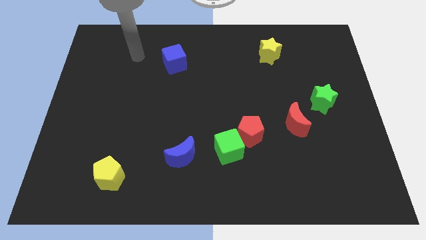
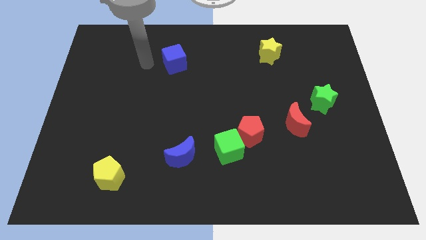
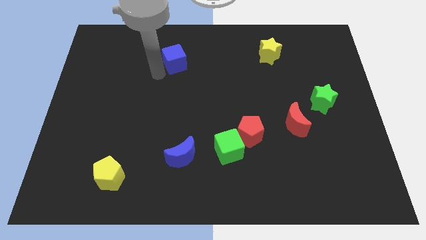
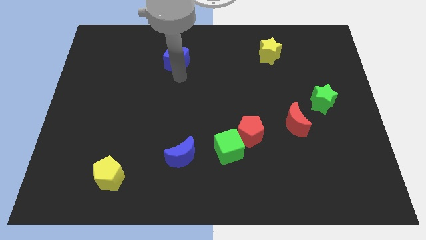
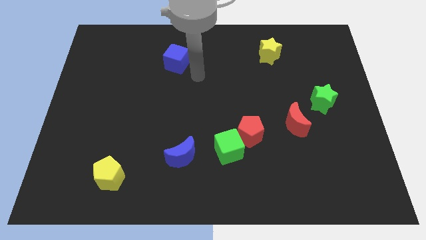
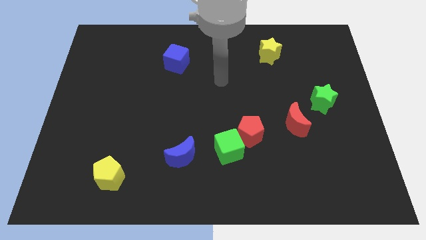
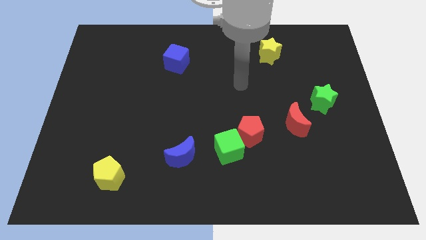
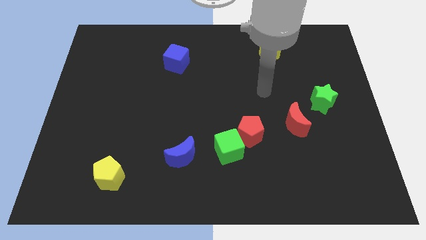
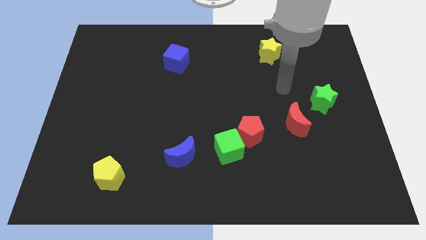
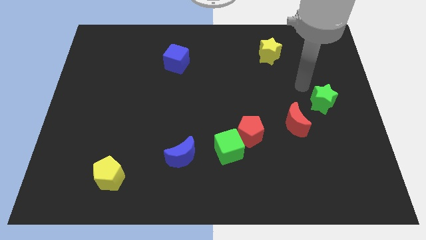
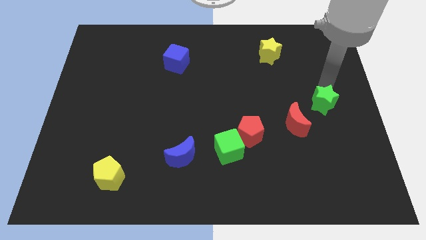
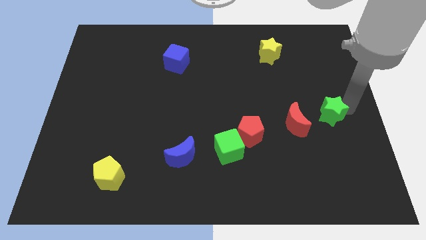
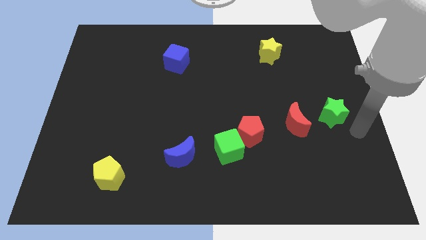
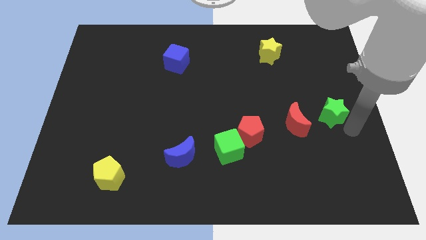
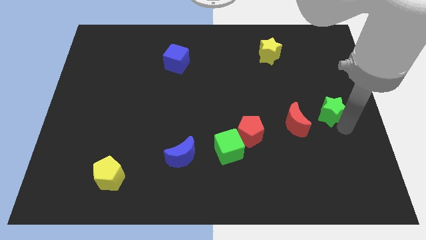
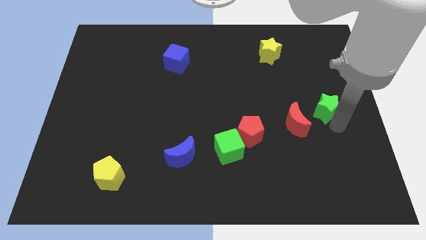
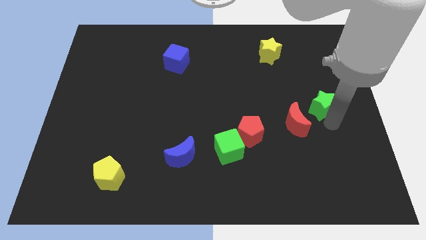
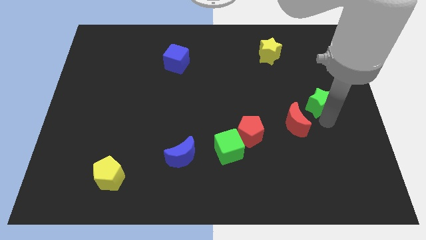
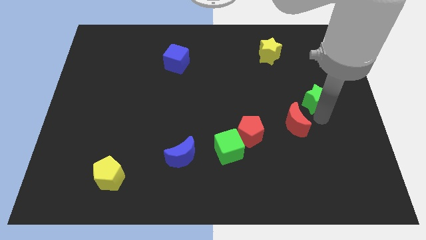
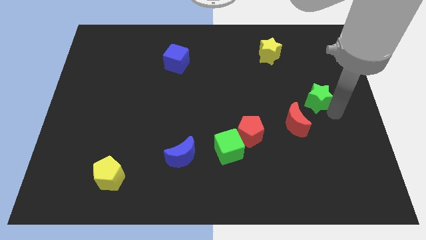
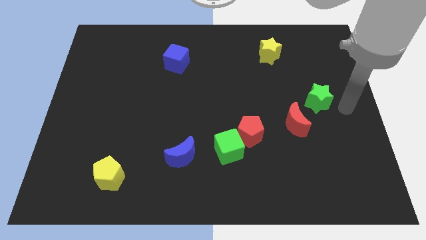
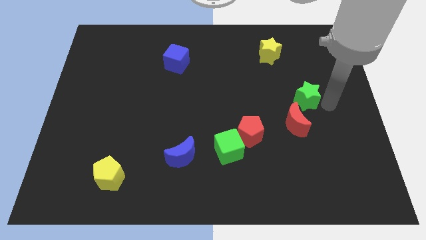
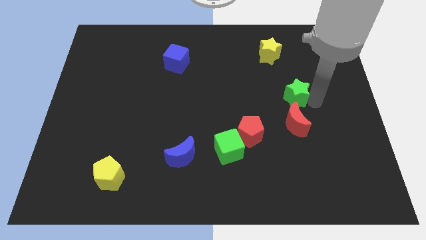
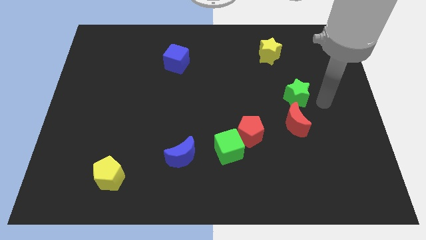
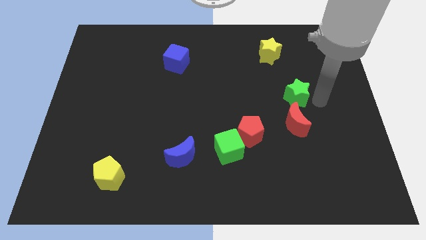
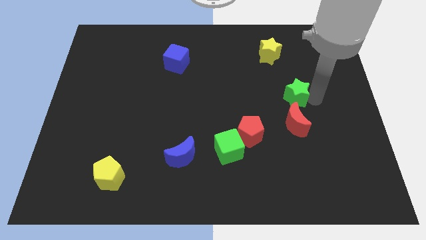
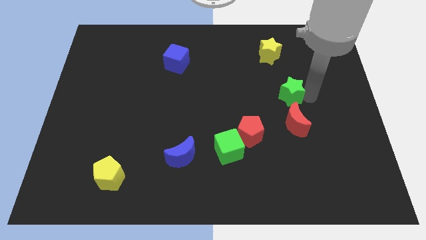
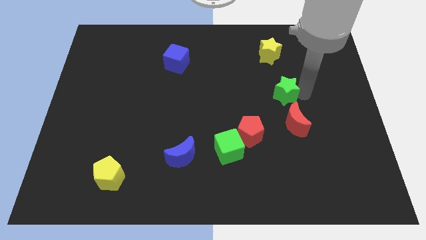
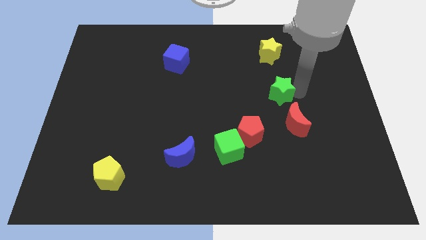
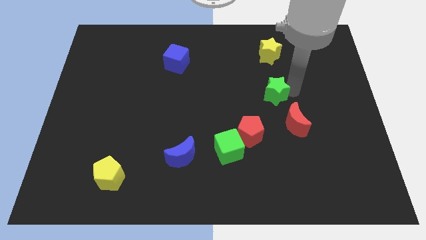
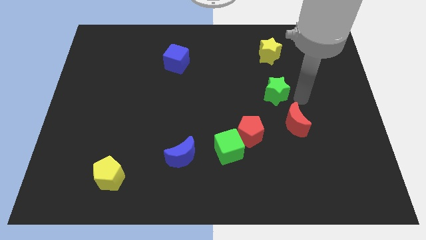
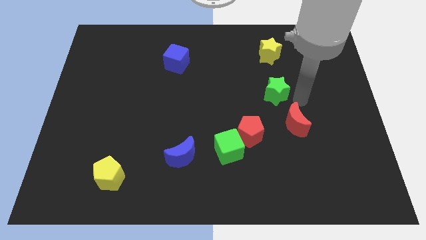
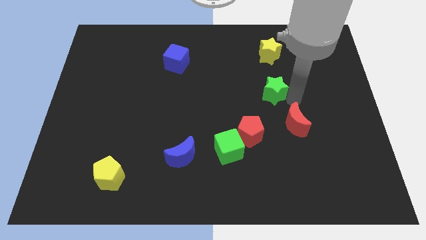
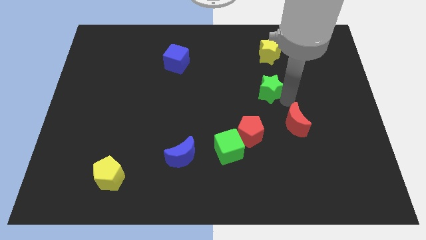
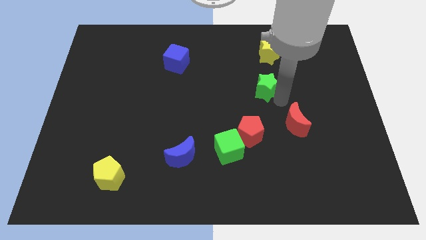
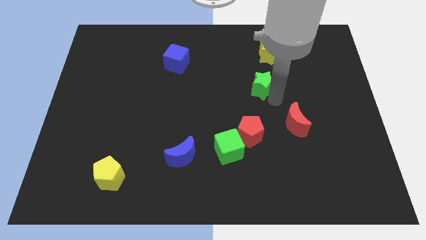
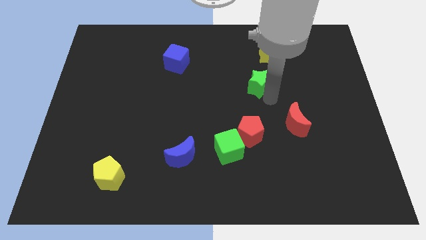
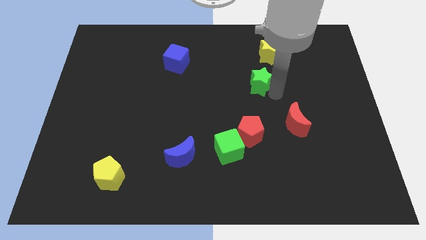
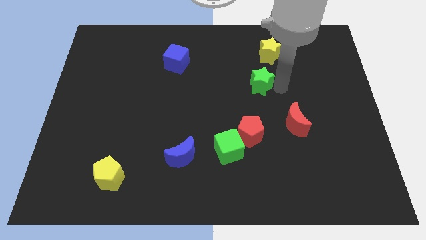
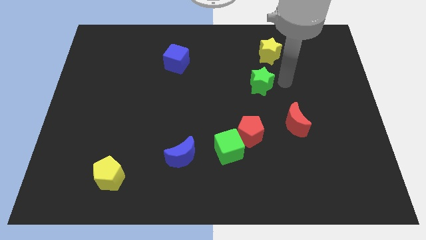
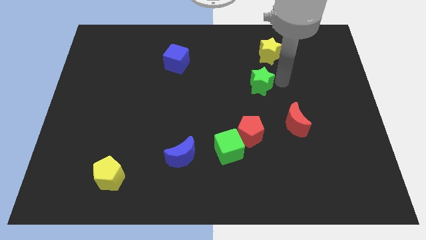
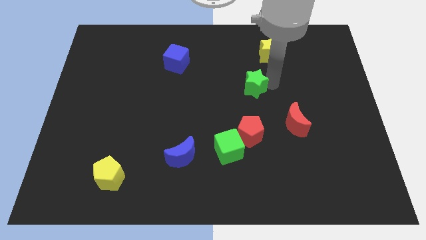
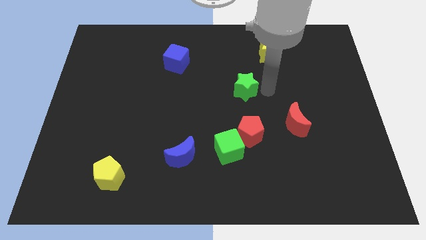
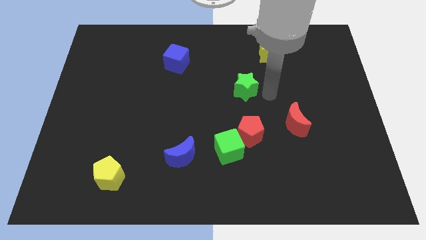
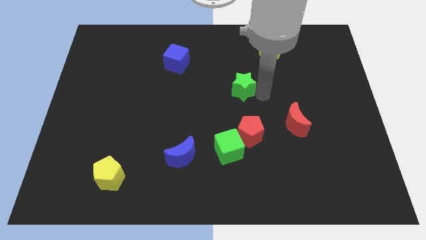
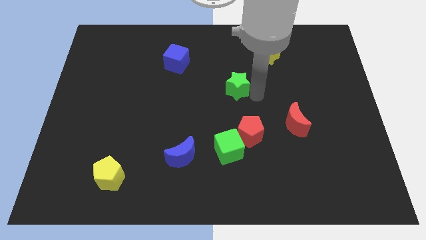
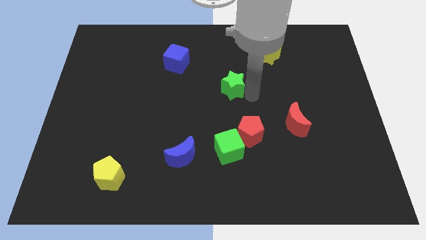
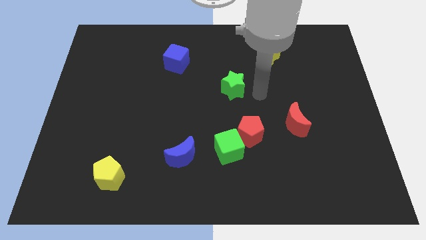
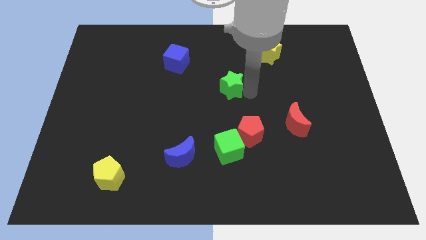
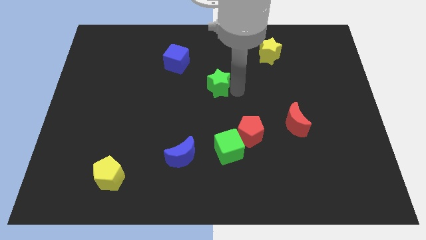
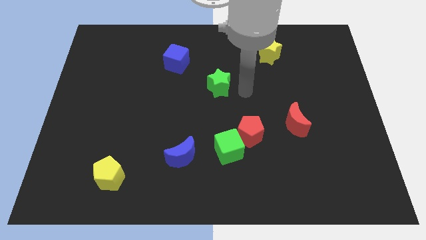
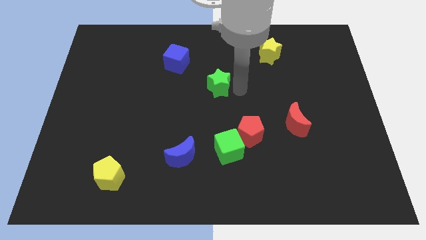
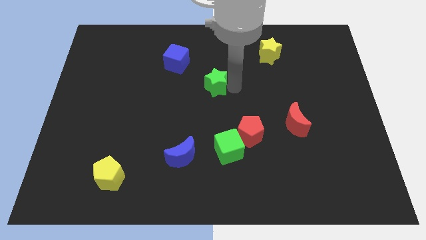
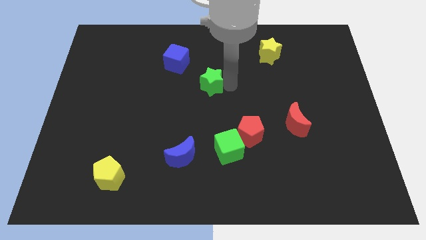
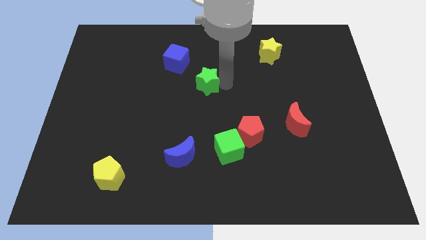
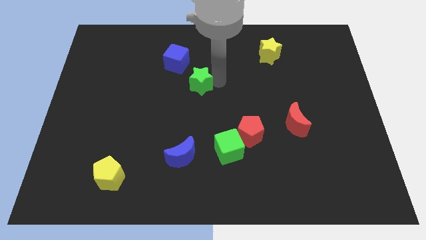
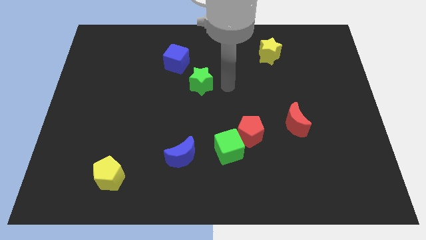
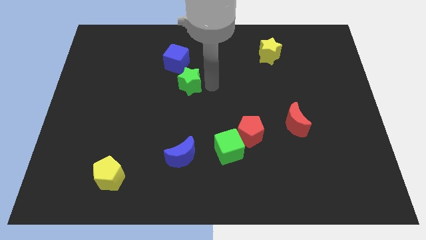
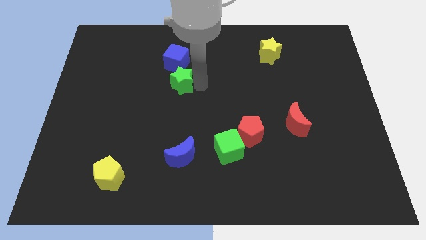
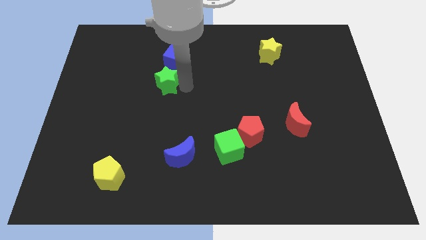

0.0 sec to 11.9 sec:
put the green star to the bottom left of the blue cube

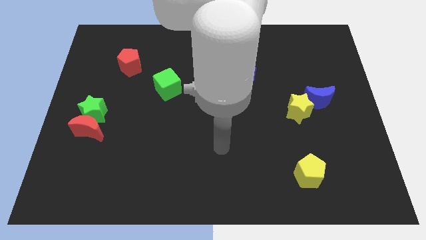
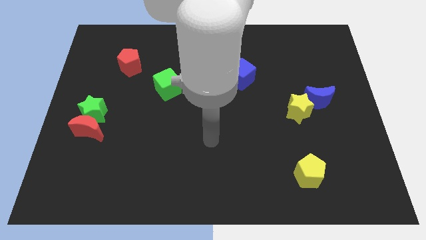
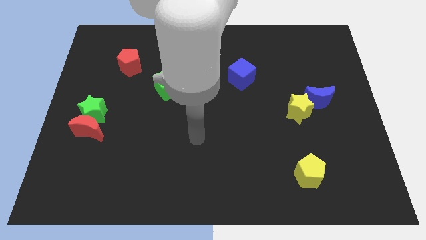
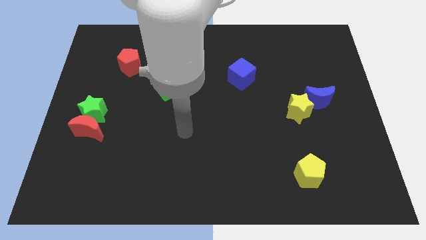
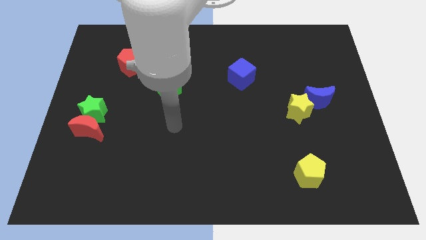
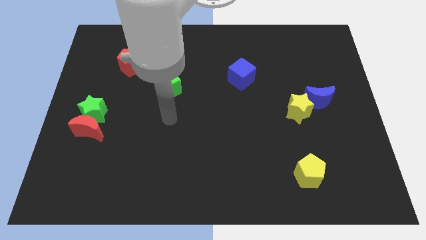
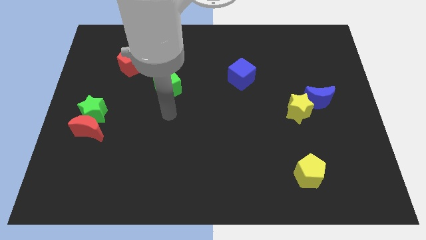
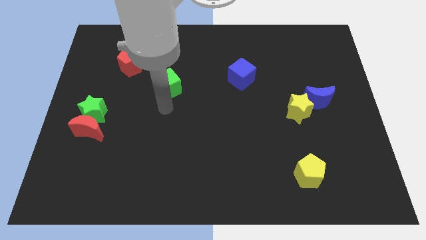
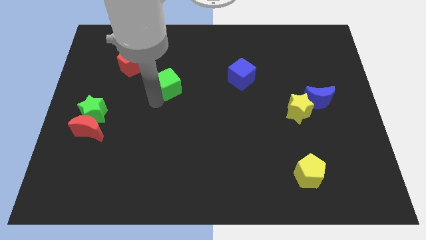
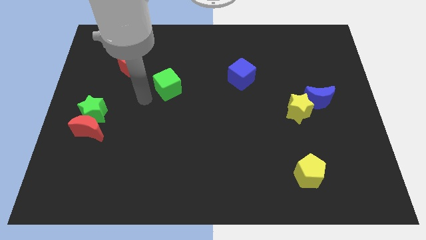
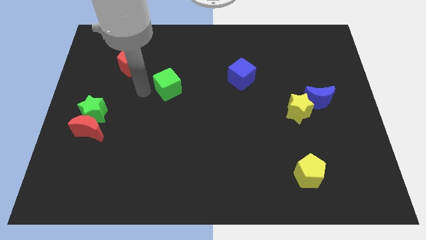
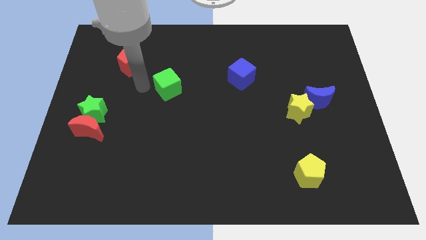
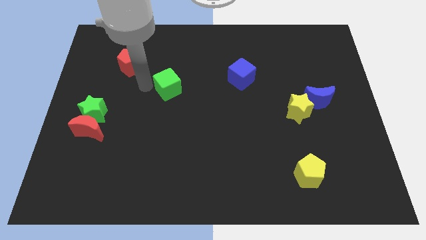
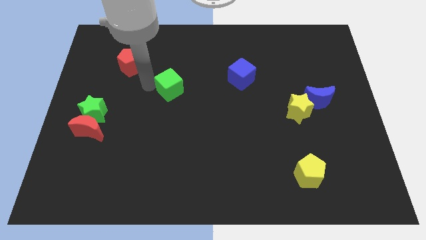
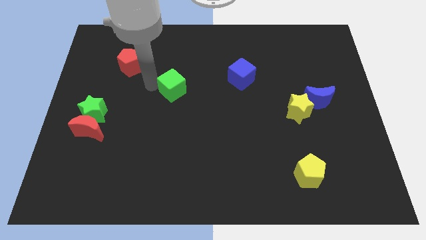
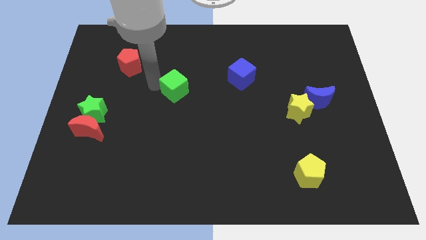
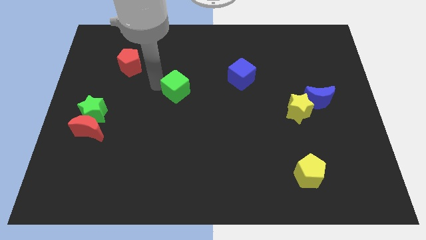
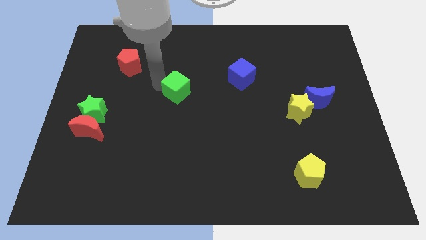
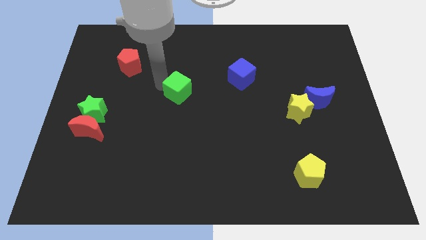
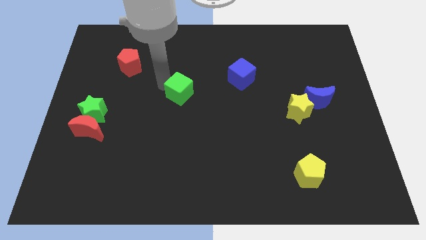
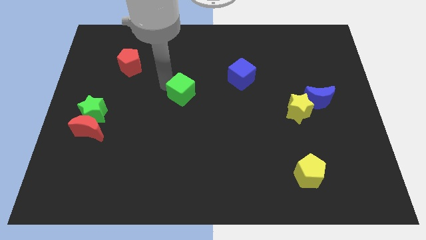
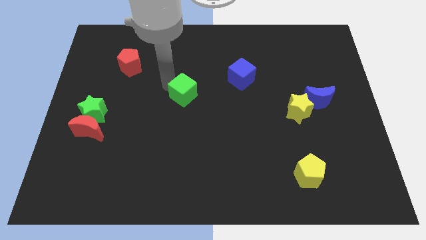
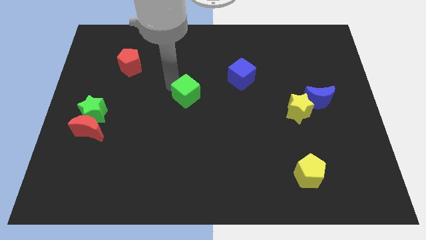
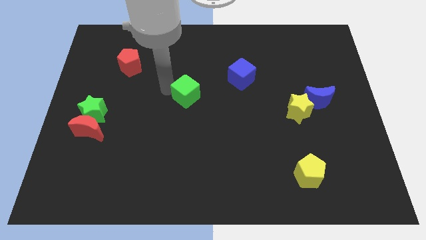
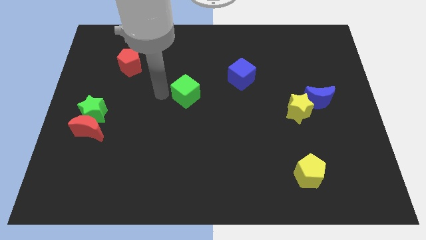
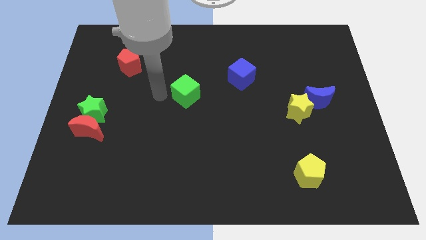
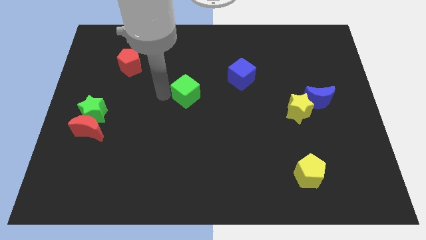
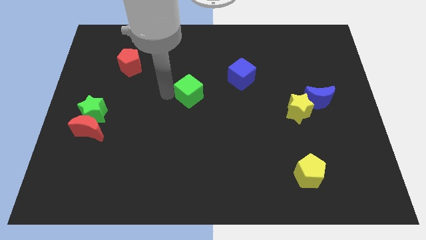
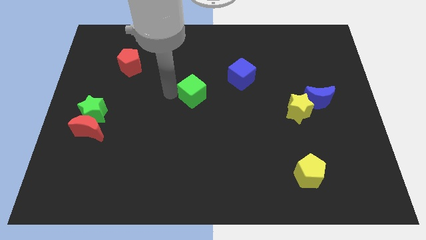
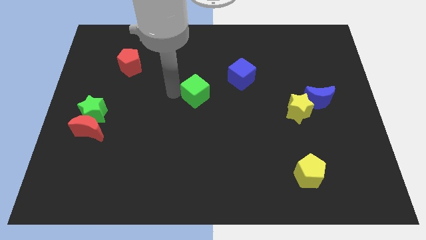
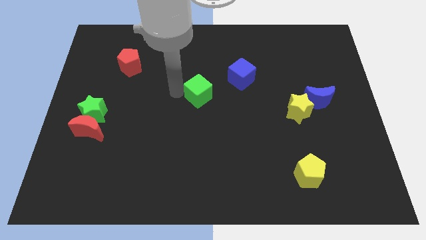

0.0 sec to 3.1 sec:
move the green cube to the bottom left side of the blue cube
